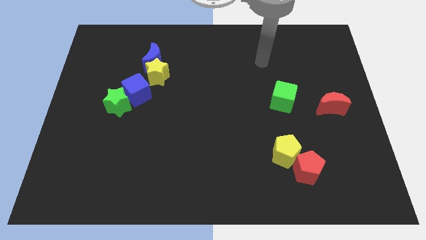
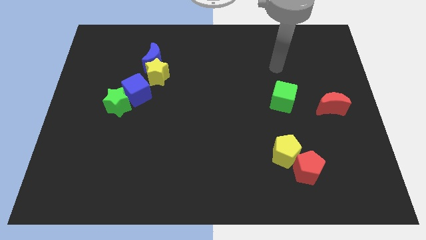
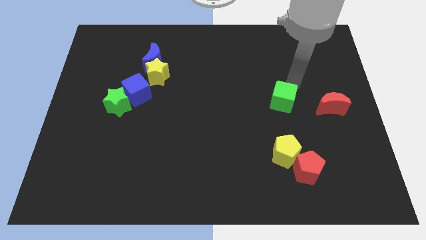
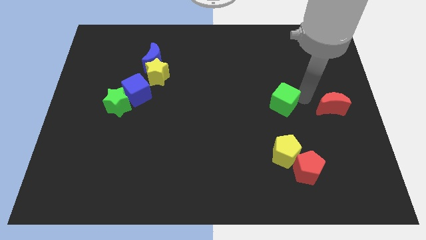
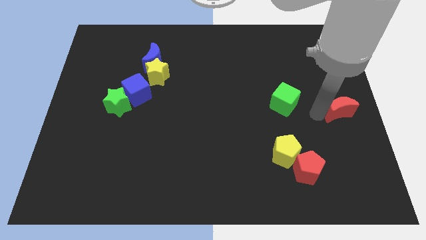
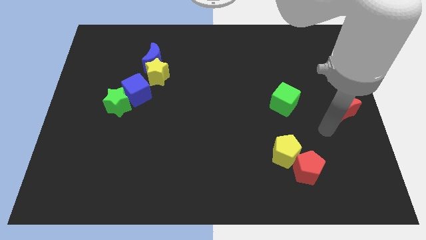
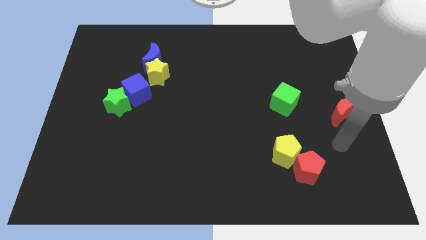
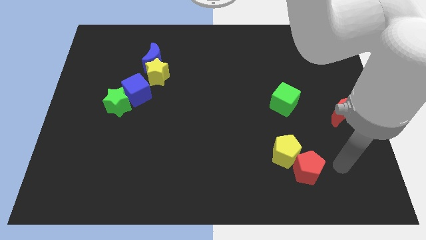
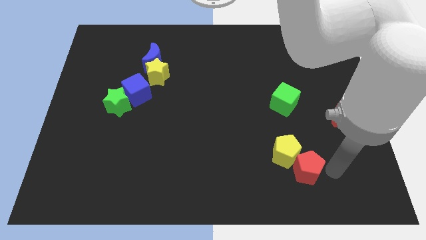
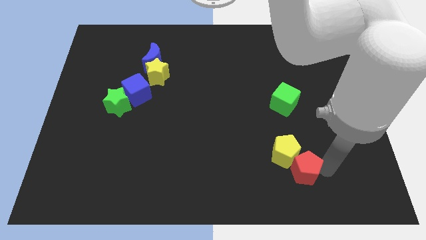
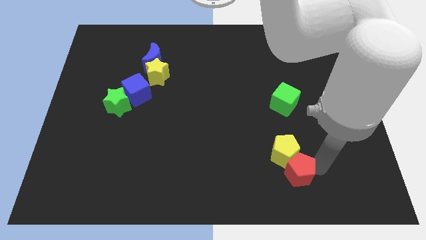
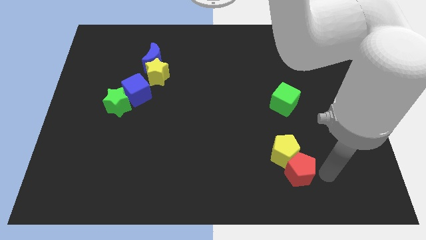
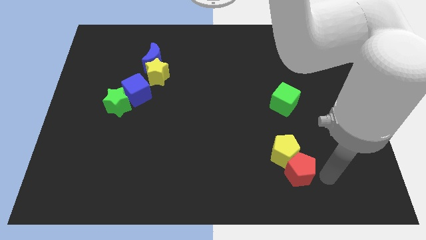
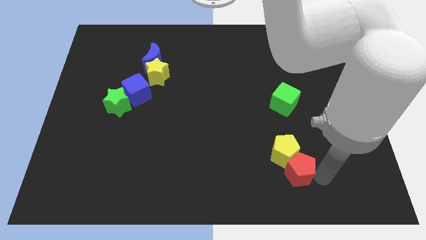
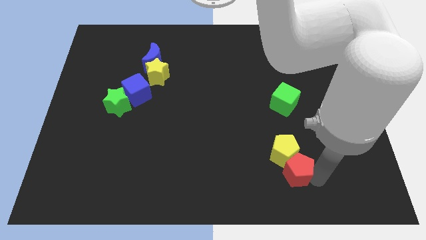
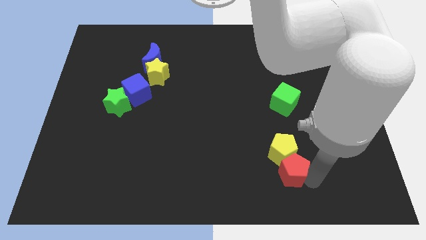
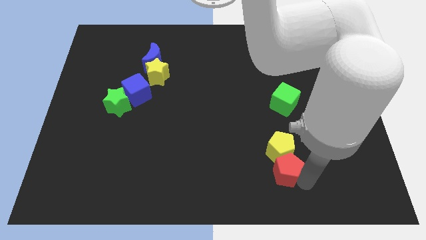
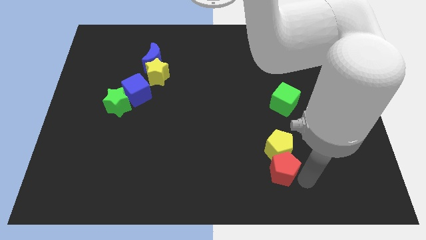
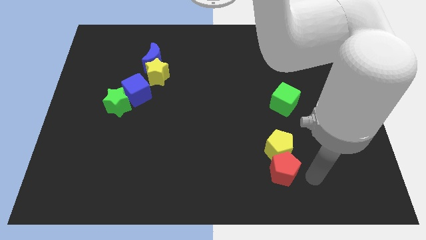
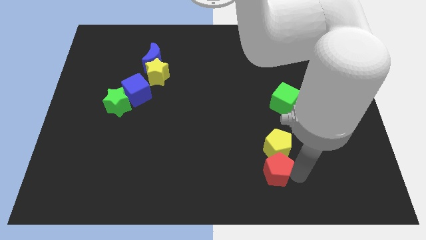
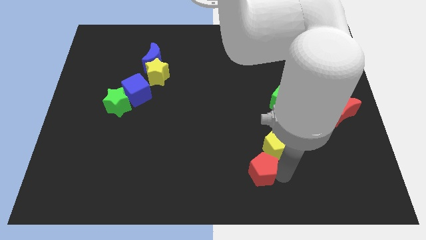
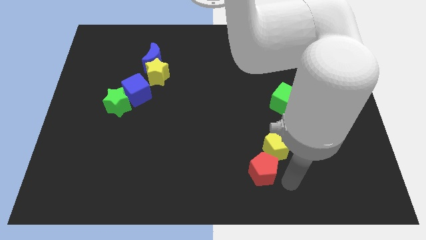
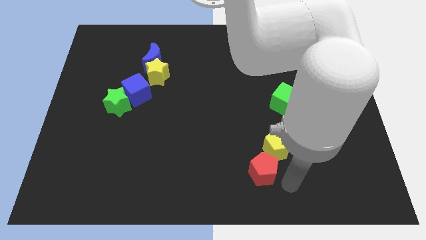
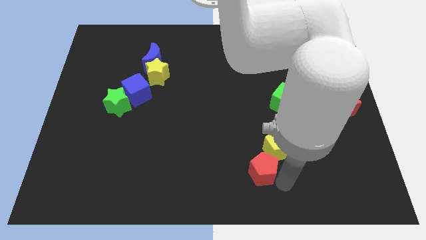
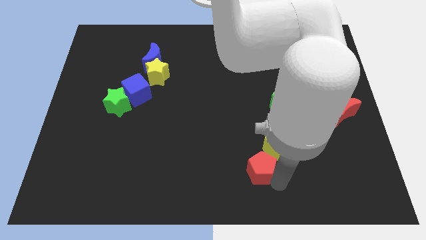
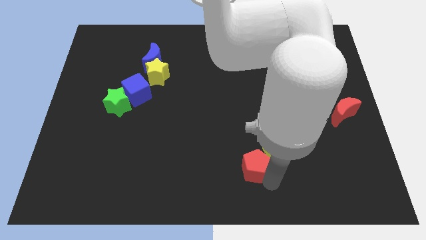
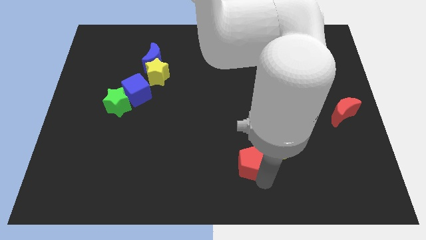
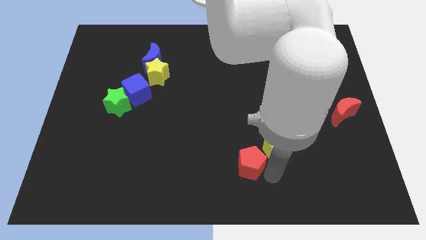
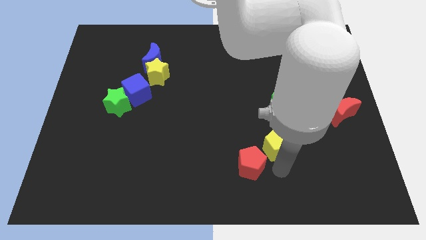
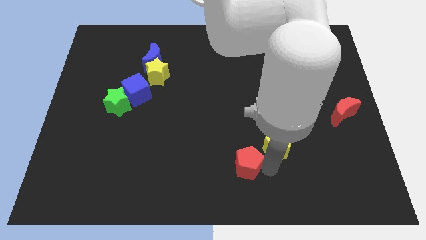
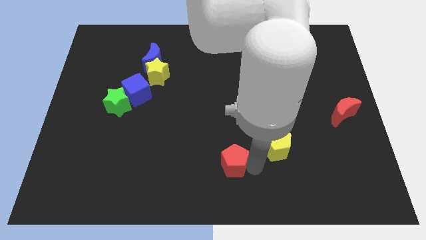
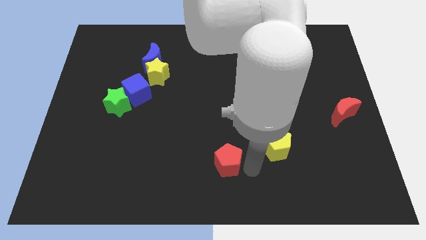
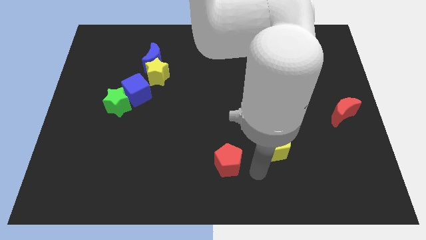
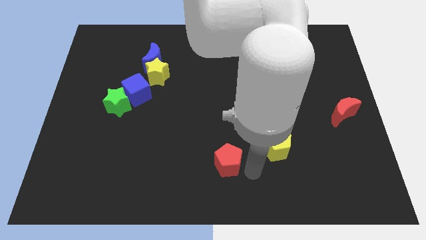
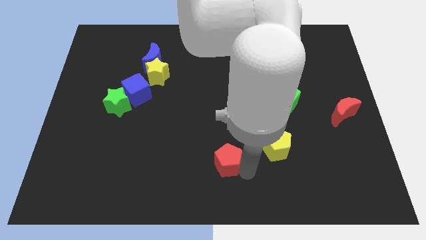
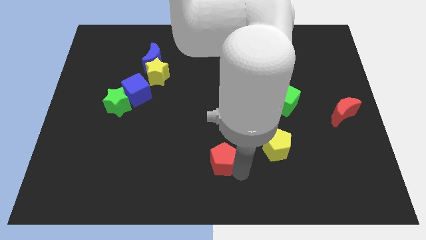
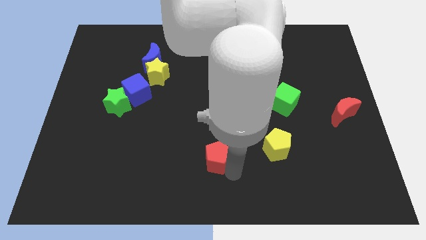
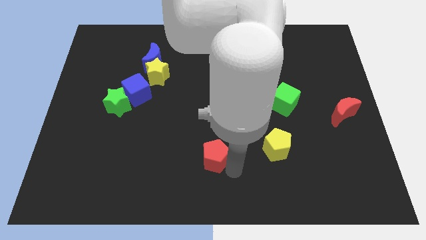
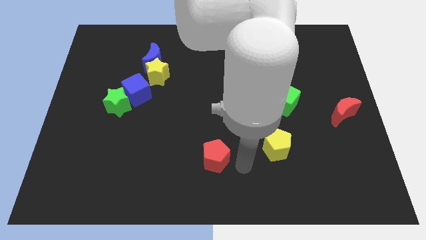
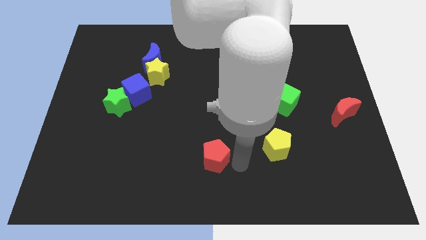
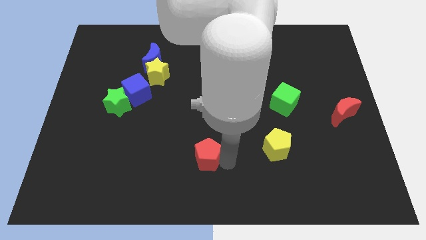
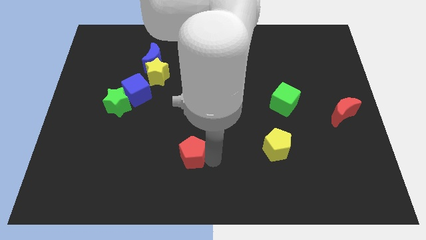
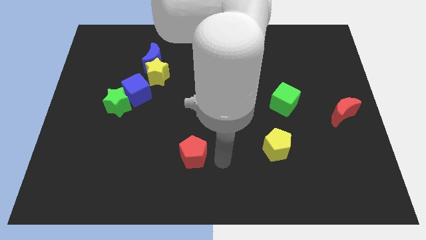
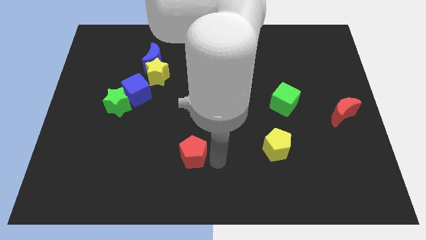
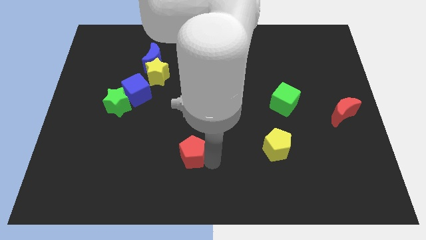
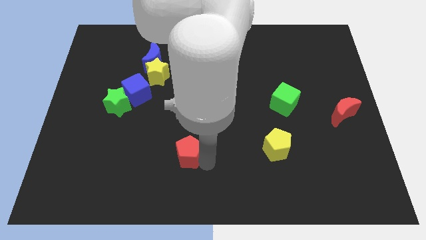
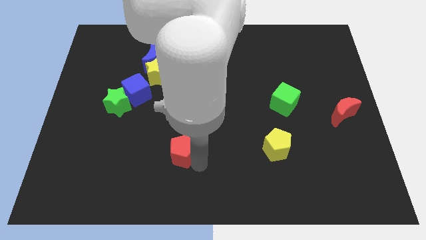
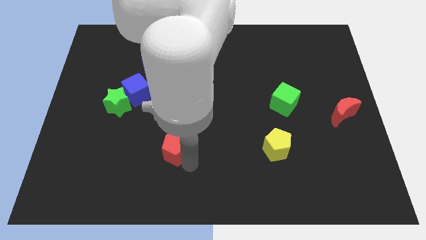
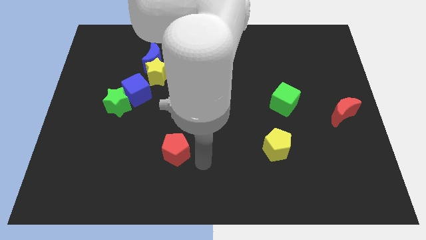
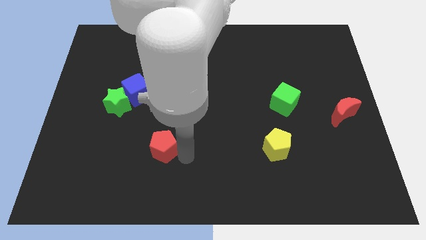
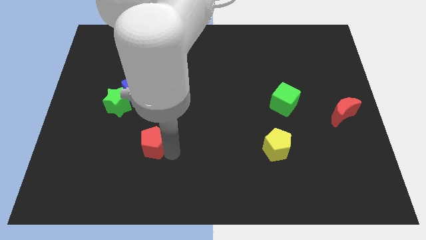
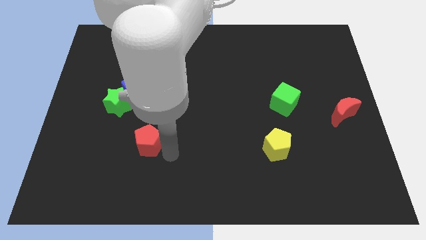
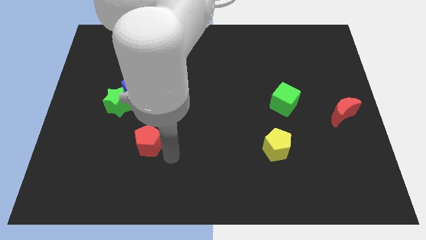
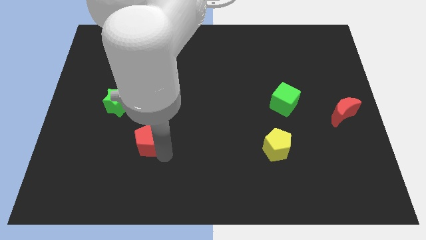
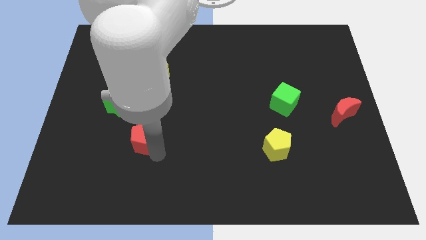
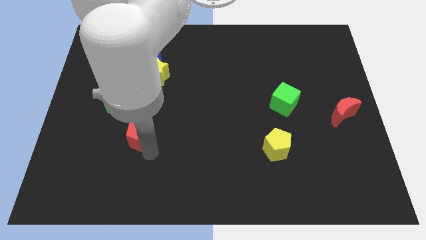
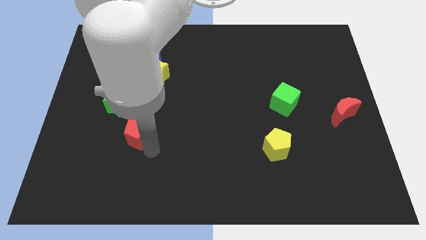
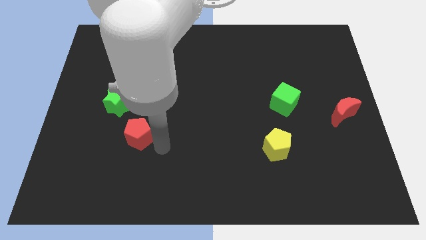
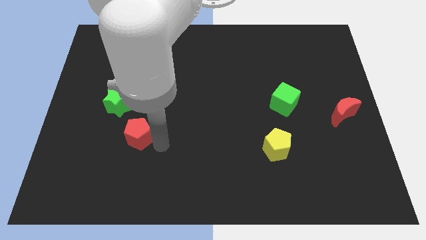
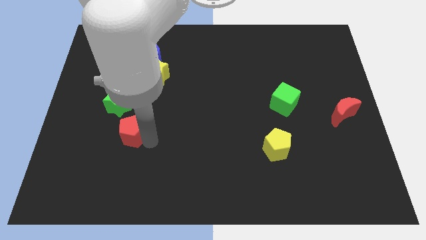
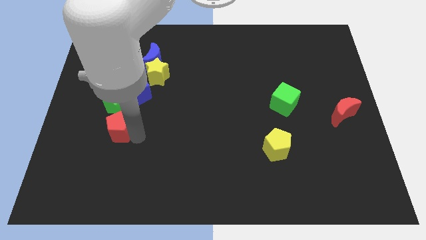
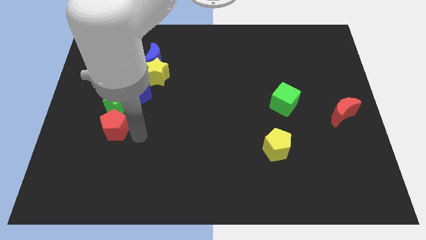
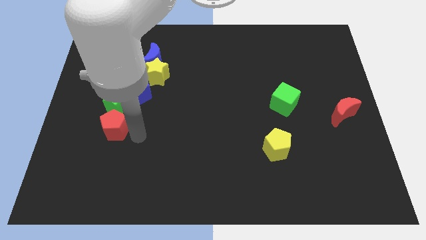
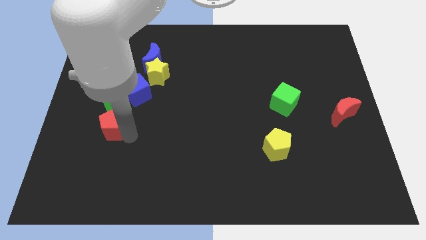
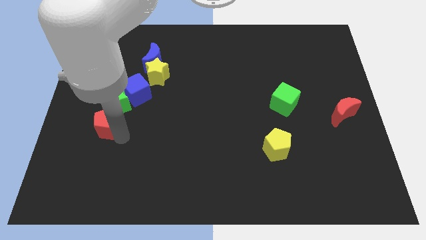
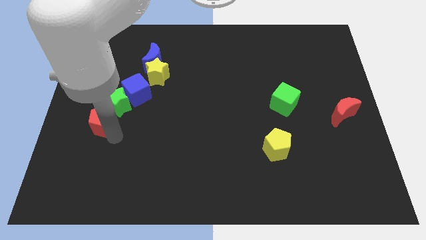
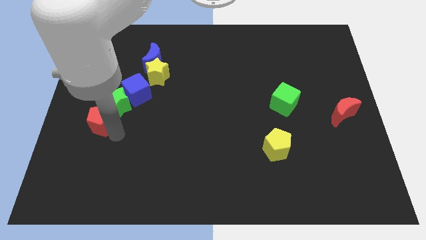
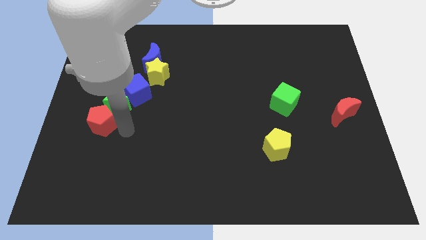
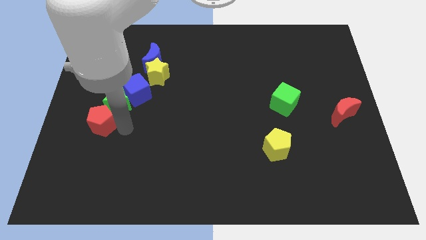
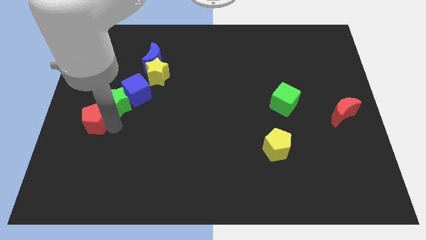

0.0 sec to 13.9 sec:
slide the red pentagon to the center left
